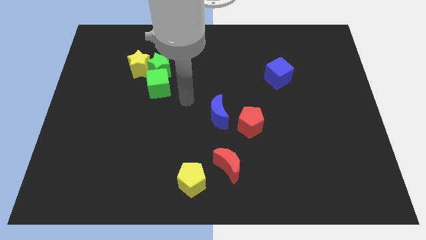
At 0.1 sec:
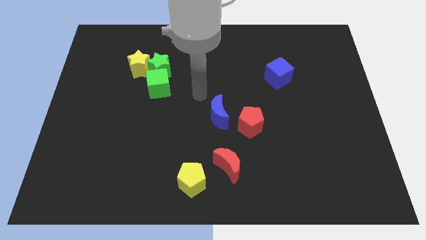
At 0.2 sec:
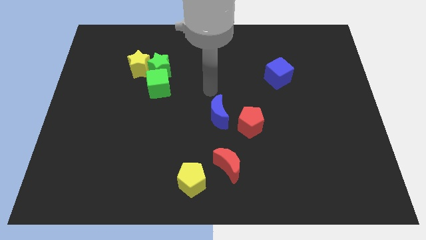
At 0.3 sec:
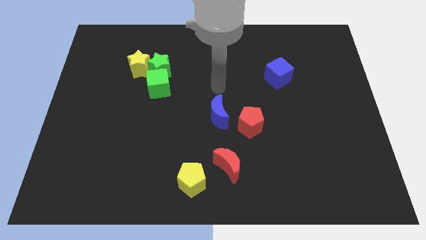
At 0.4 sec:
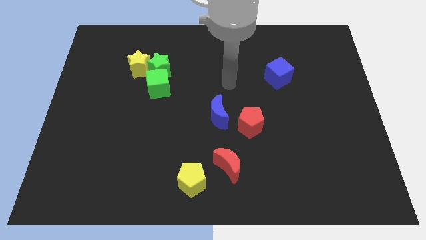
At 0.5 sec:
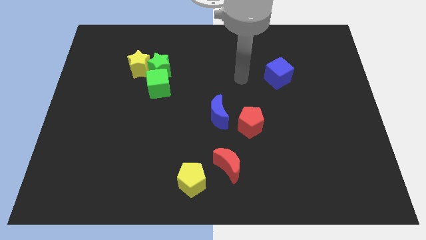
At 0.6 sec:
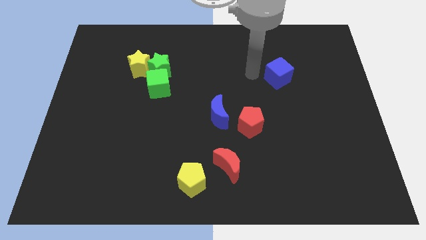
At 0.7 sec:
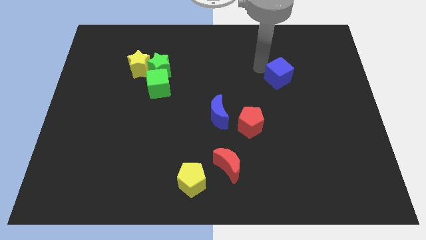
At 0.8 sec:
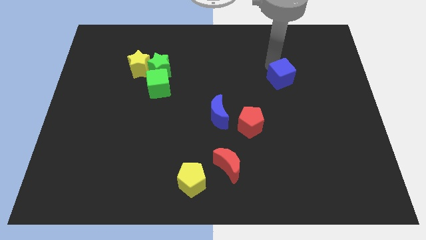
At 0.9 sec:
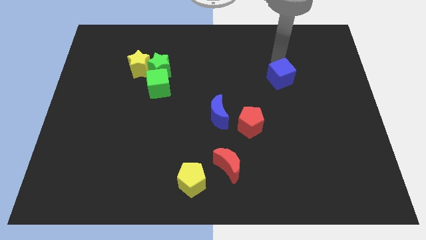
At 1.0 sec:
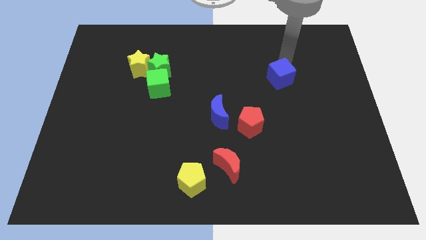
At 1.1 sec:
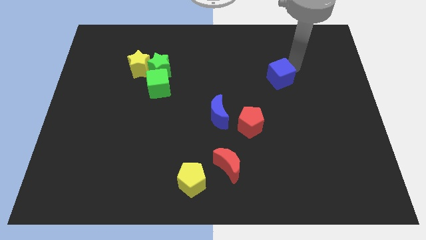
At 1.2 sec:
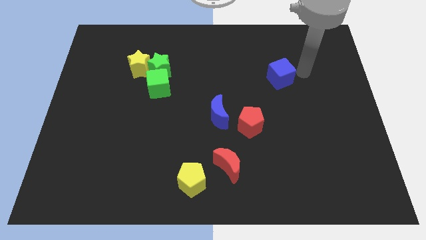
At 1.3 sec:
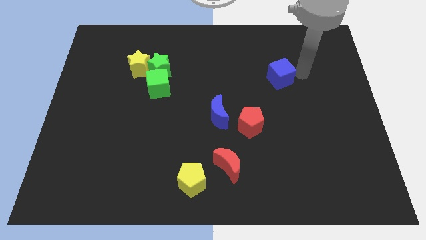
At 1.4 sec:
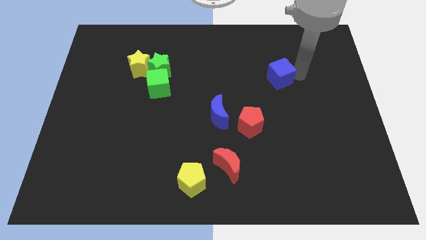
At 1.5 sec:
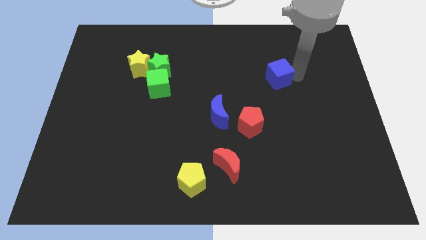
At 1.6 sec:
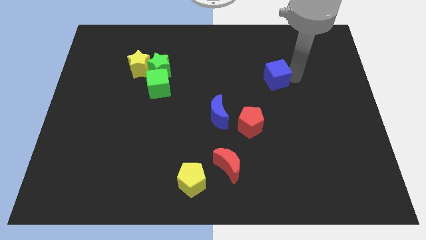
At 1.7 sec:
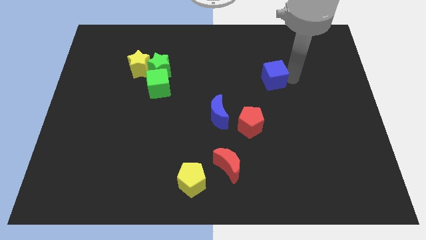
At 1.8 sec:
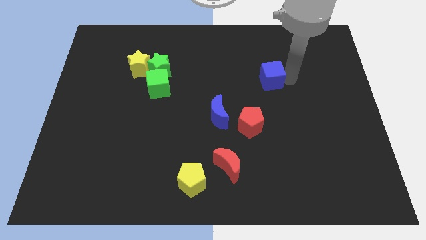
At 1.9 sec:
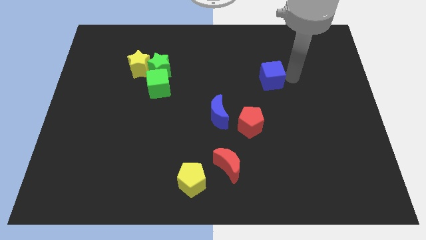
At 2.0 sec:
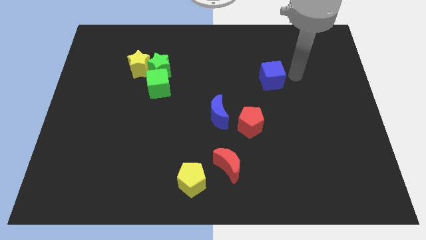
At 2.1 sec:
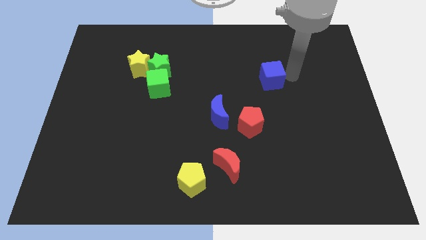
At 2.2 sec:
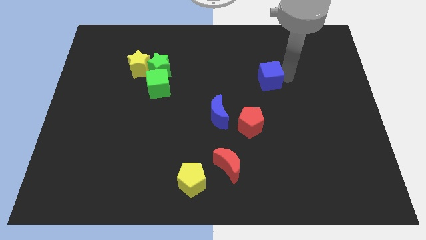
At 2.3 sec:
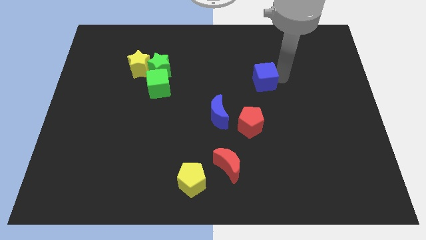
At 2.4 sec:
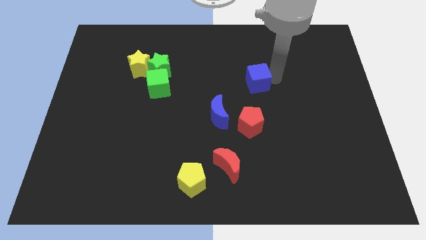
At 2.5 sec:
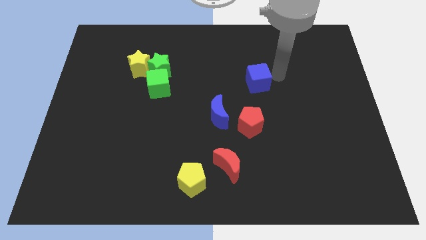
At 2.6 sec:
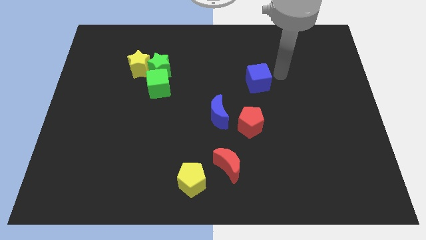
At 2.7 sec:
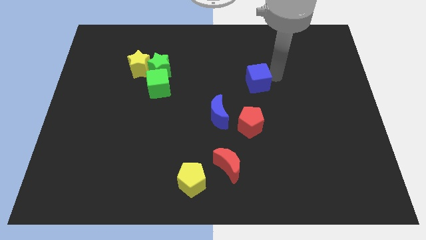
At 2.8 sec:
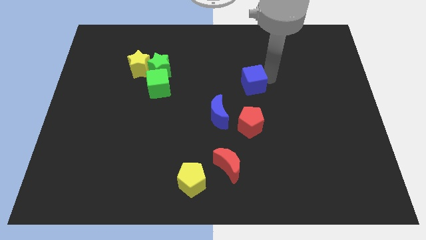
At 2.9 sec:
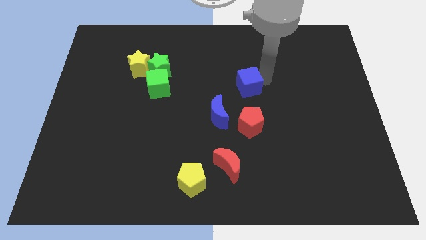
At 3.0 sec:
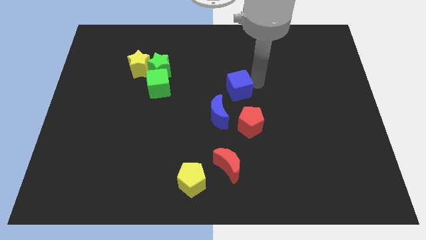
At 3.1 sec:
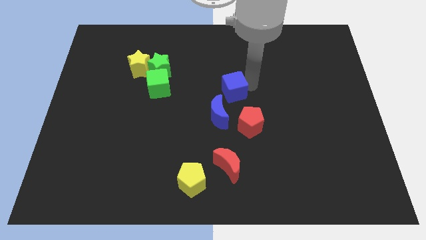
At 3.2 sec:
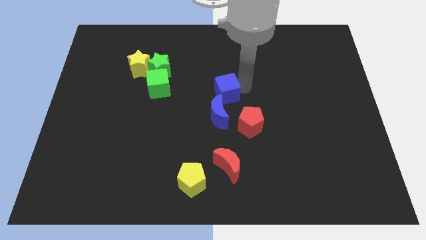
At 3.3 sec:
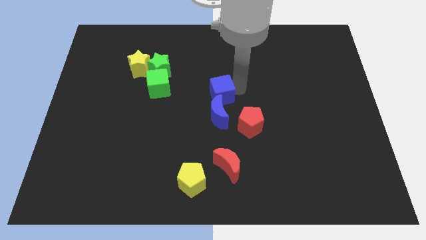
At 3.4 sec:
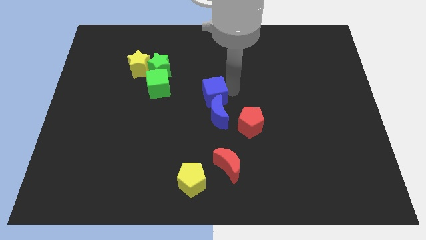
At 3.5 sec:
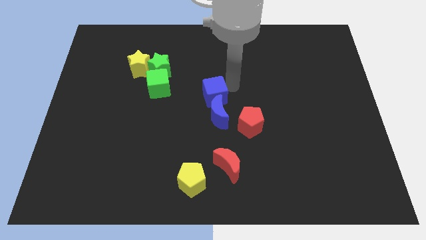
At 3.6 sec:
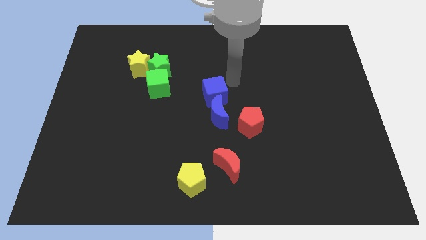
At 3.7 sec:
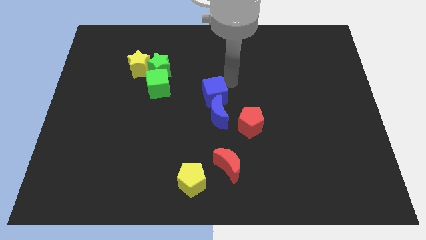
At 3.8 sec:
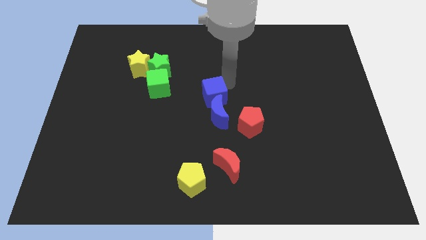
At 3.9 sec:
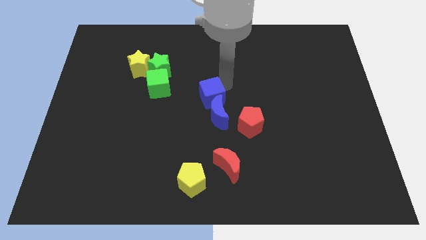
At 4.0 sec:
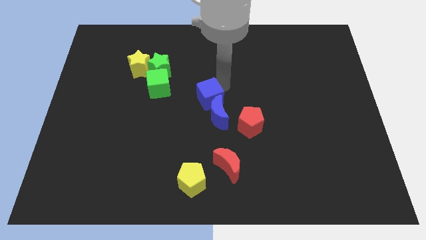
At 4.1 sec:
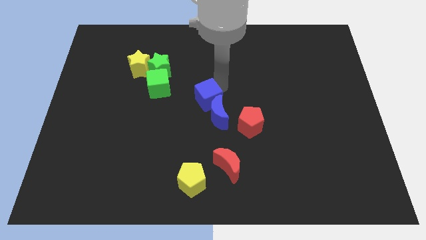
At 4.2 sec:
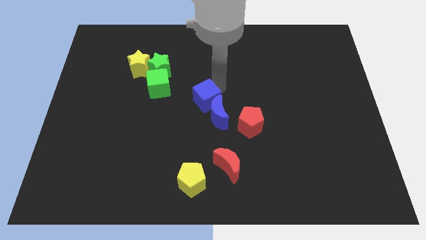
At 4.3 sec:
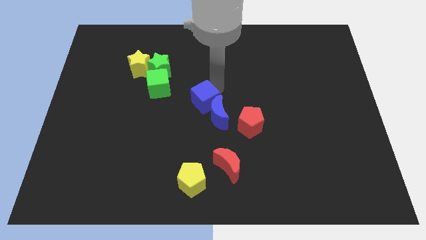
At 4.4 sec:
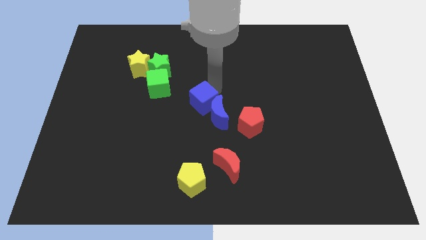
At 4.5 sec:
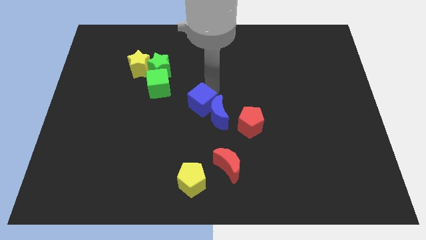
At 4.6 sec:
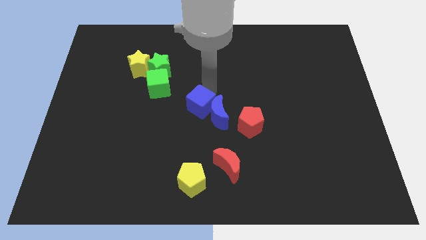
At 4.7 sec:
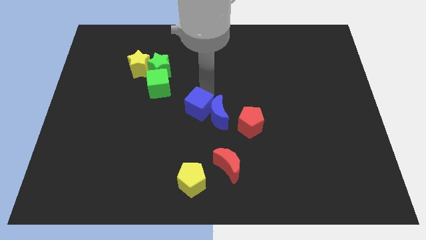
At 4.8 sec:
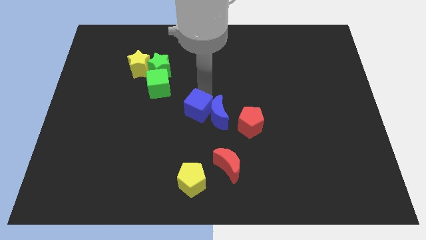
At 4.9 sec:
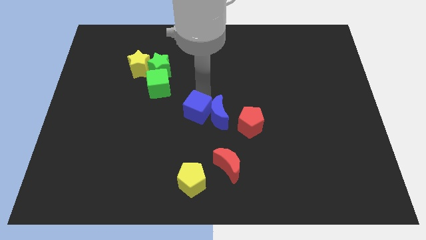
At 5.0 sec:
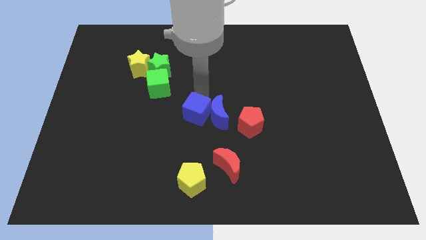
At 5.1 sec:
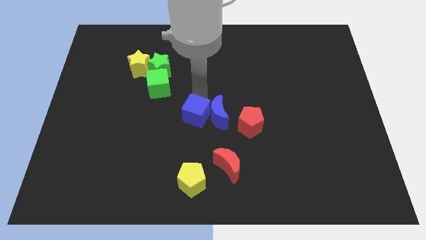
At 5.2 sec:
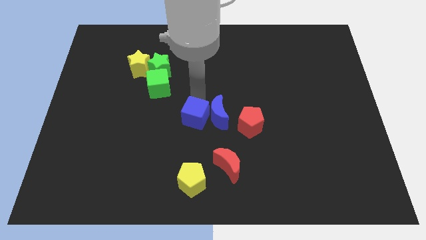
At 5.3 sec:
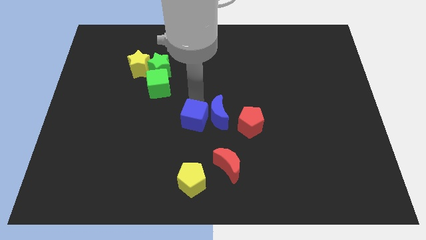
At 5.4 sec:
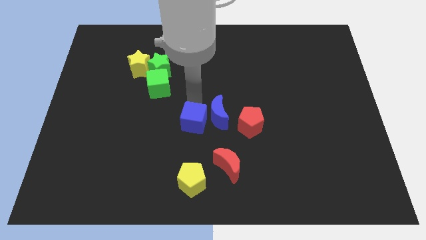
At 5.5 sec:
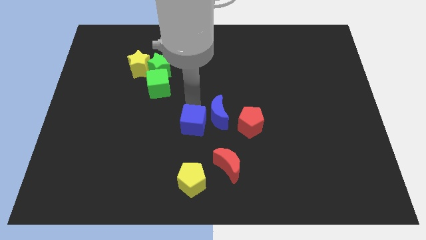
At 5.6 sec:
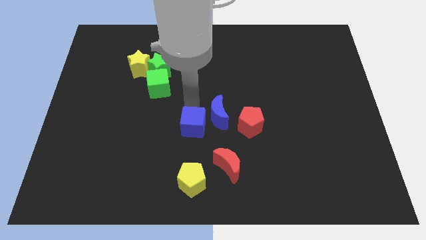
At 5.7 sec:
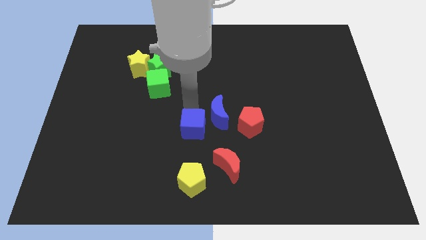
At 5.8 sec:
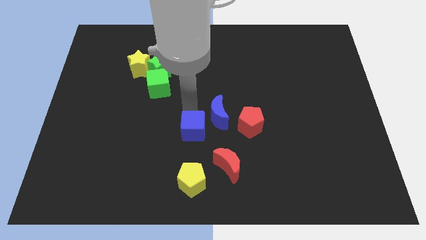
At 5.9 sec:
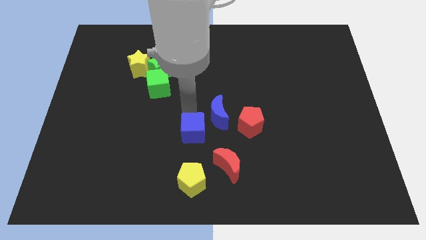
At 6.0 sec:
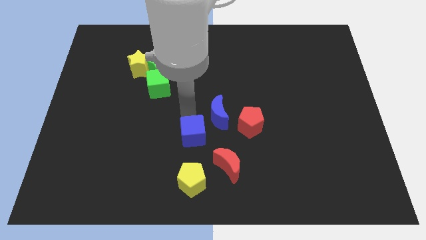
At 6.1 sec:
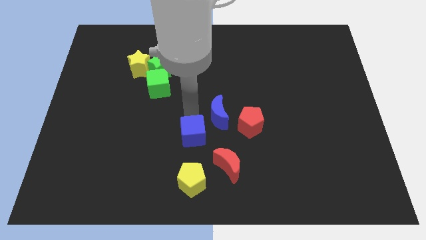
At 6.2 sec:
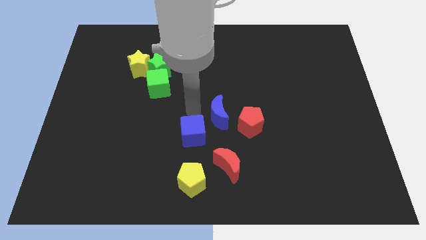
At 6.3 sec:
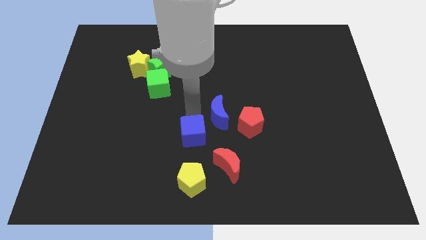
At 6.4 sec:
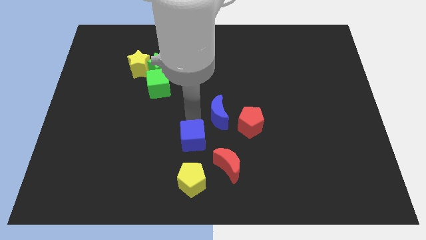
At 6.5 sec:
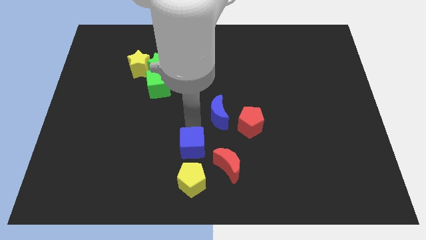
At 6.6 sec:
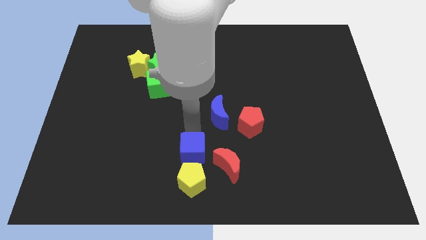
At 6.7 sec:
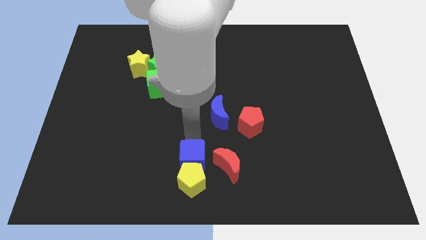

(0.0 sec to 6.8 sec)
push the blue cube to the yellow pentagon
